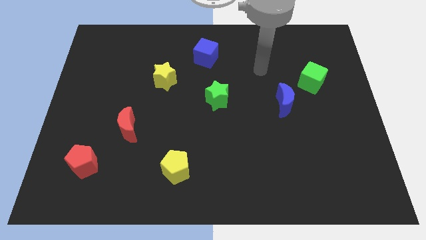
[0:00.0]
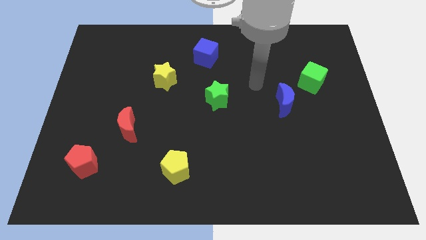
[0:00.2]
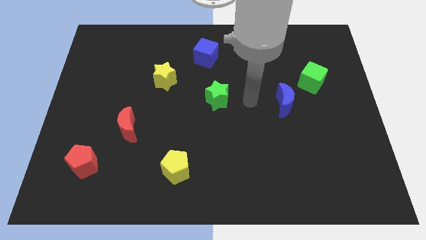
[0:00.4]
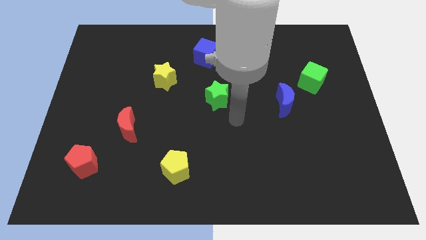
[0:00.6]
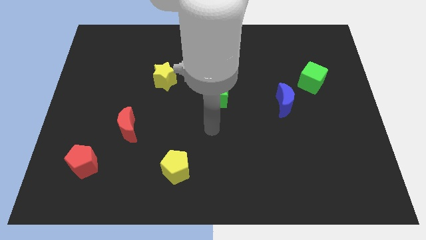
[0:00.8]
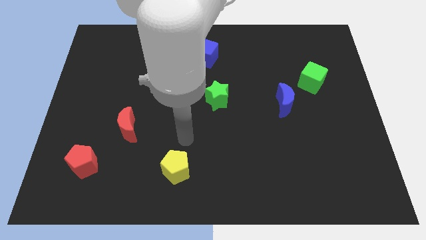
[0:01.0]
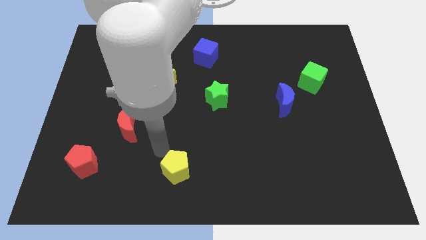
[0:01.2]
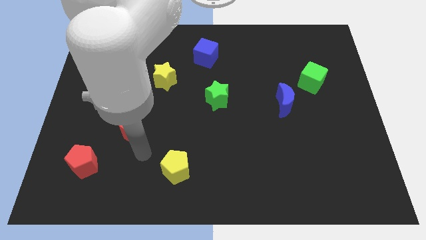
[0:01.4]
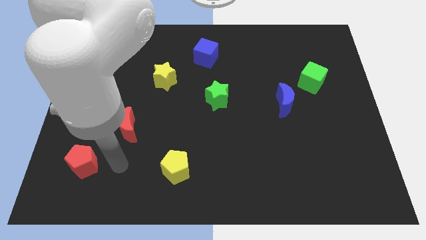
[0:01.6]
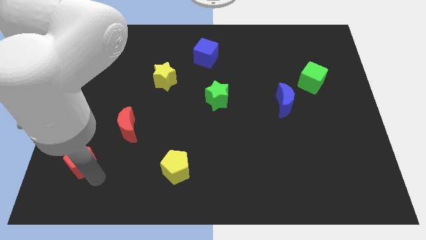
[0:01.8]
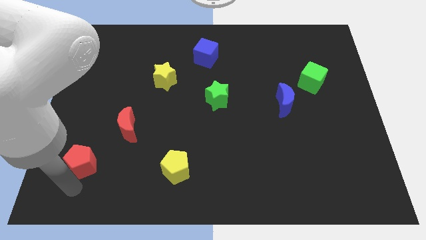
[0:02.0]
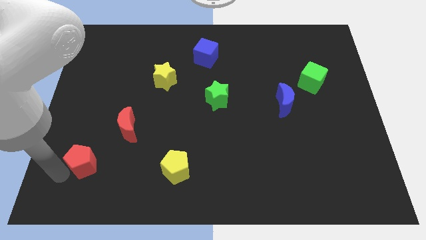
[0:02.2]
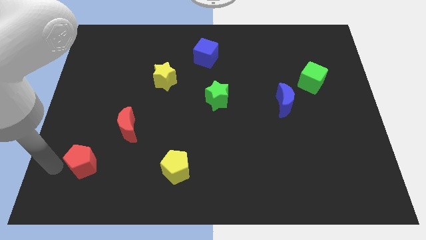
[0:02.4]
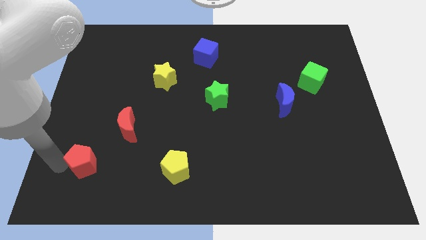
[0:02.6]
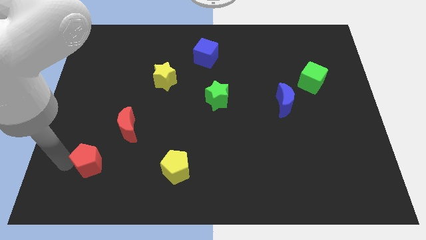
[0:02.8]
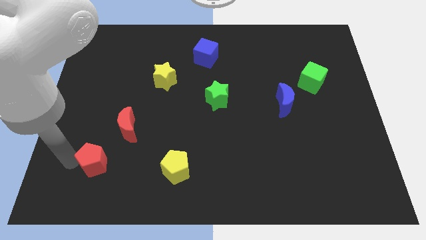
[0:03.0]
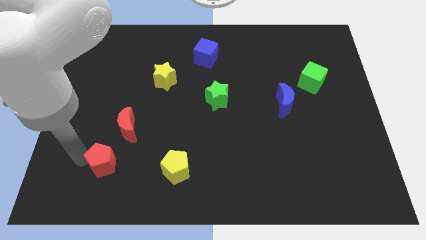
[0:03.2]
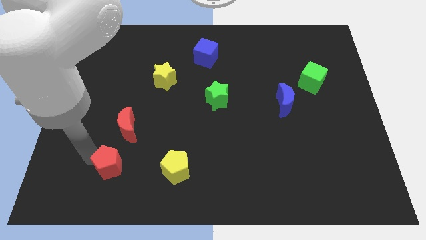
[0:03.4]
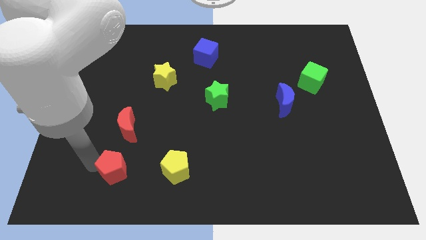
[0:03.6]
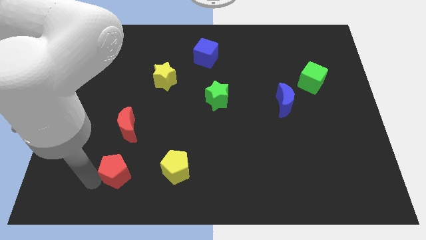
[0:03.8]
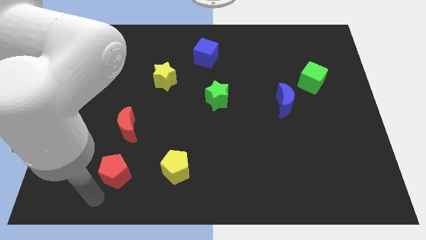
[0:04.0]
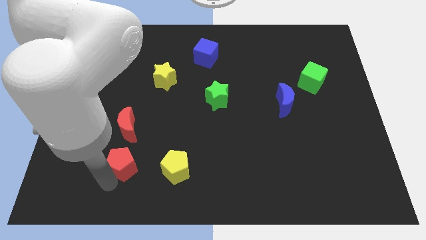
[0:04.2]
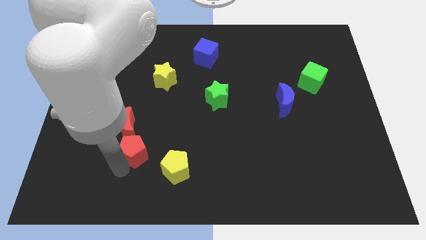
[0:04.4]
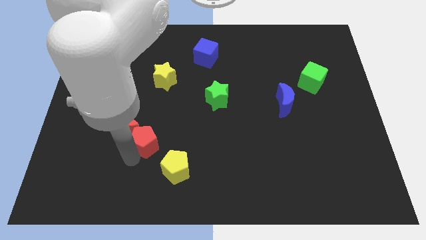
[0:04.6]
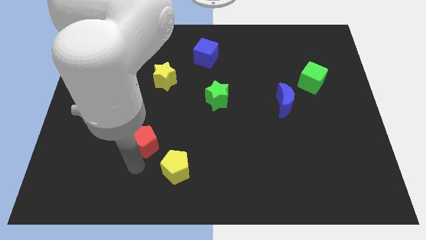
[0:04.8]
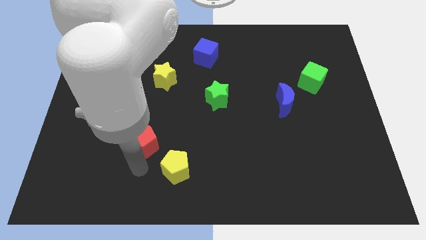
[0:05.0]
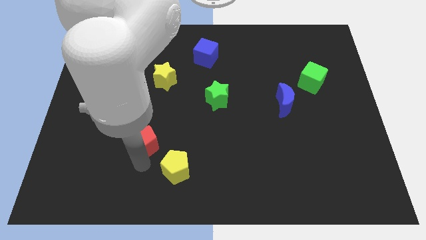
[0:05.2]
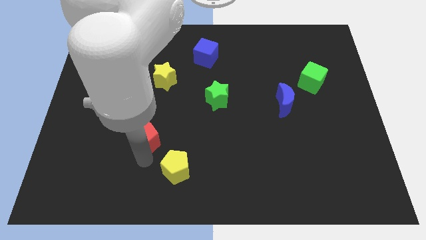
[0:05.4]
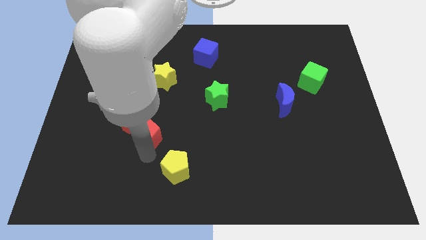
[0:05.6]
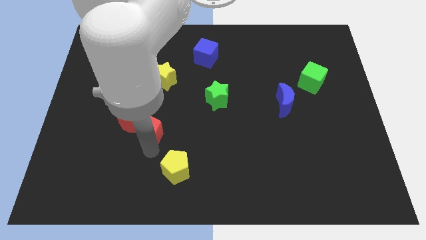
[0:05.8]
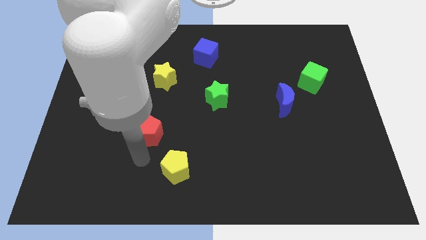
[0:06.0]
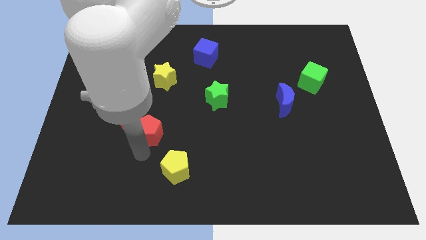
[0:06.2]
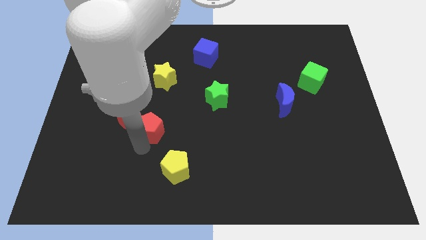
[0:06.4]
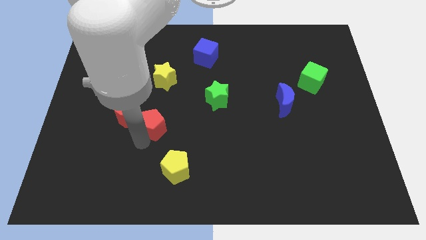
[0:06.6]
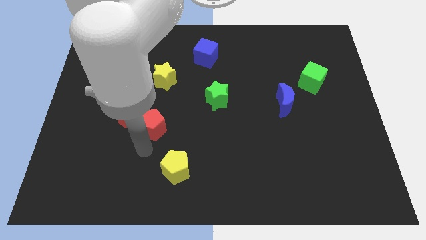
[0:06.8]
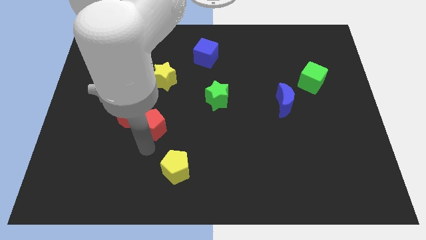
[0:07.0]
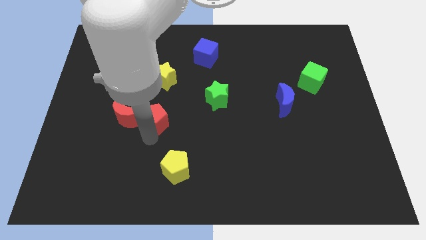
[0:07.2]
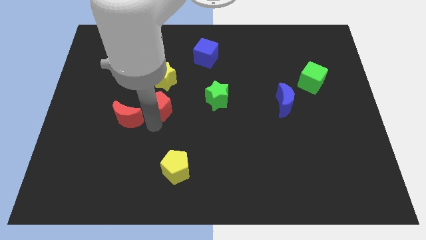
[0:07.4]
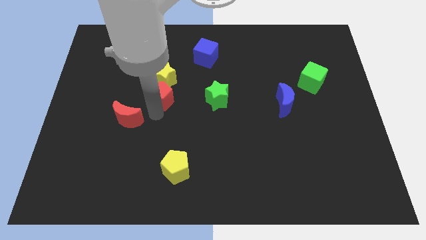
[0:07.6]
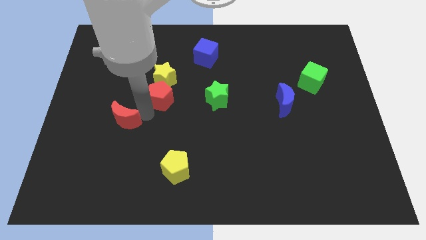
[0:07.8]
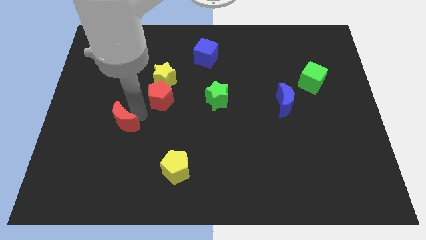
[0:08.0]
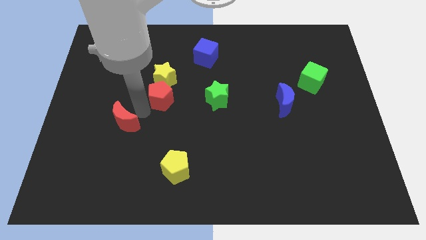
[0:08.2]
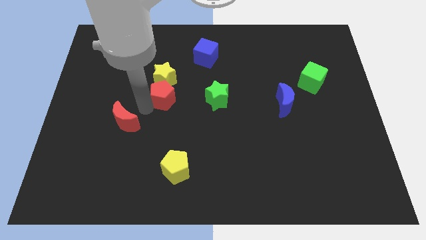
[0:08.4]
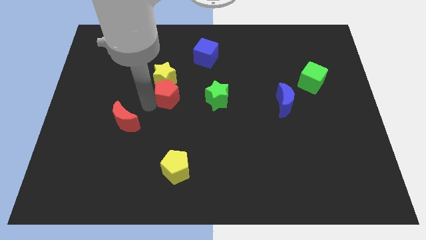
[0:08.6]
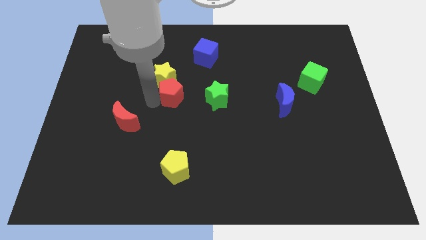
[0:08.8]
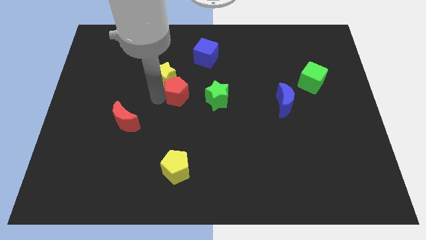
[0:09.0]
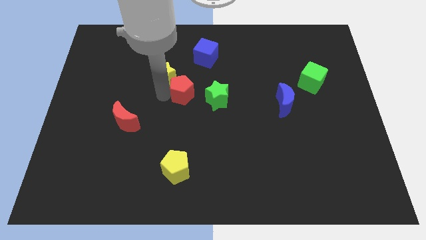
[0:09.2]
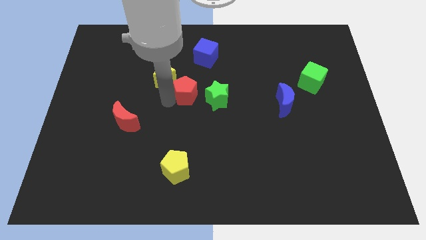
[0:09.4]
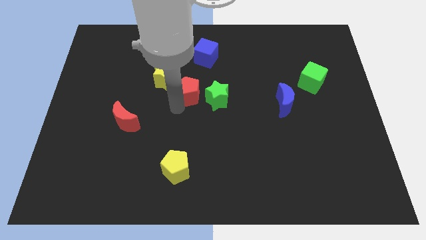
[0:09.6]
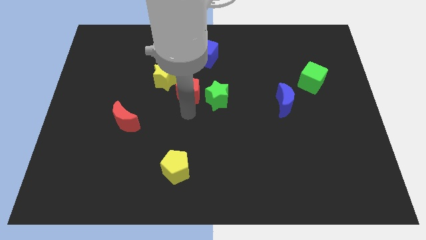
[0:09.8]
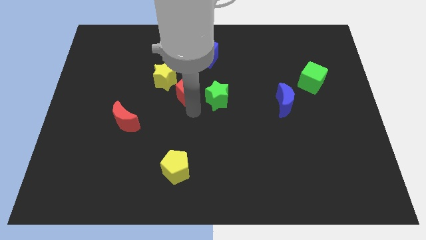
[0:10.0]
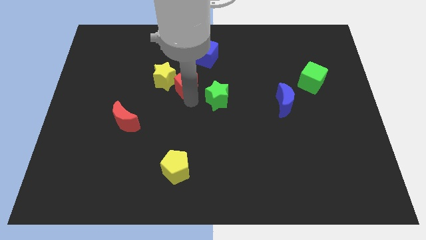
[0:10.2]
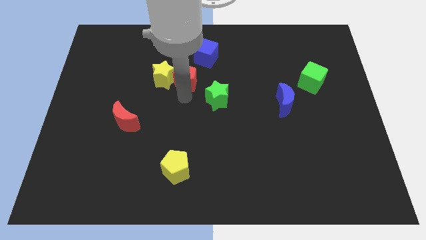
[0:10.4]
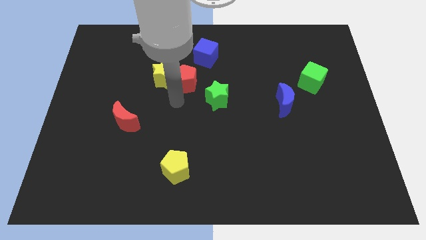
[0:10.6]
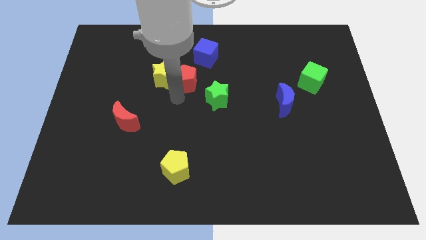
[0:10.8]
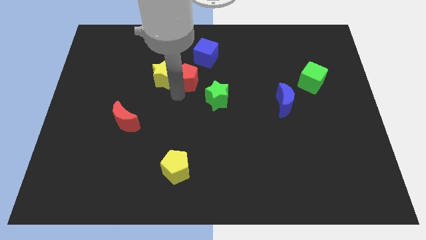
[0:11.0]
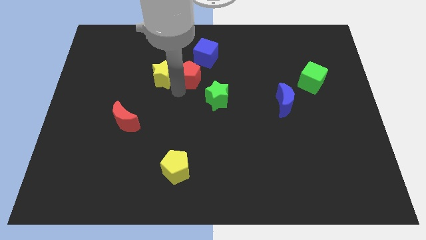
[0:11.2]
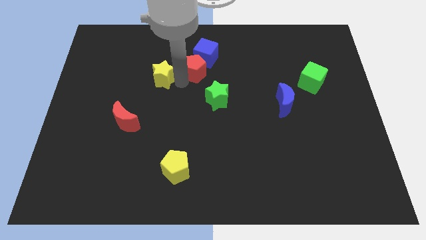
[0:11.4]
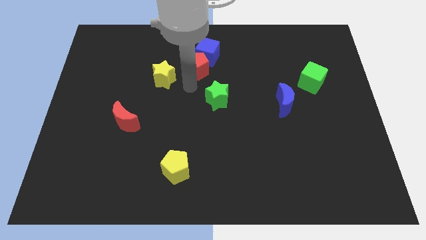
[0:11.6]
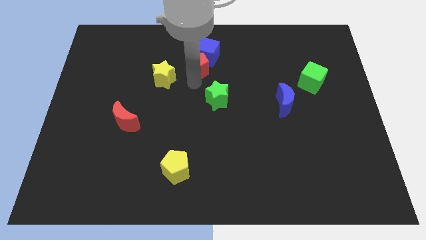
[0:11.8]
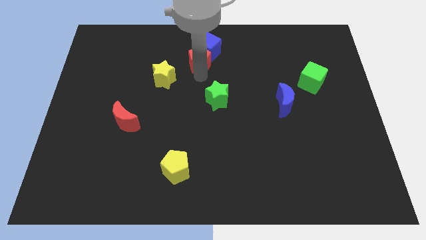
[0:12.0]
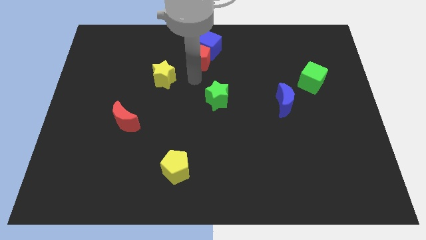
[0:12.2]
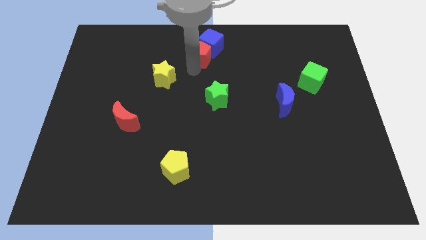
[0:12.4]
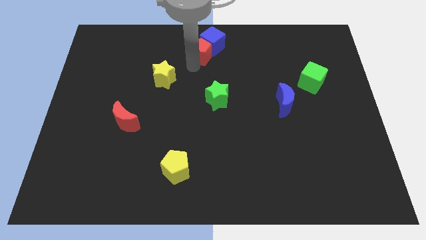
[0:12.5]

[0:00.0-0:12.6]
put the red pentagon to the towards your base

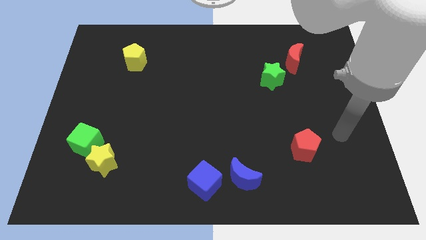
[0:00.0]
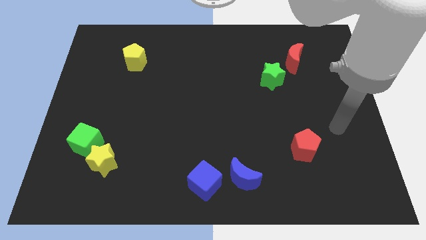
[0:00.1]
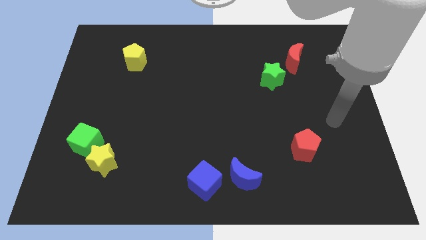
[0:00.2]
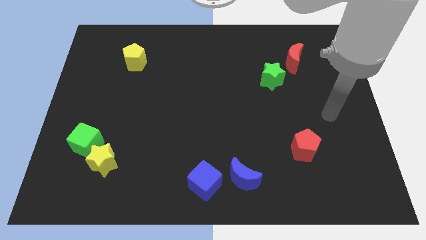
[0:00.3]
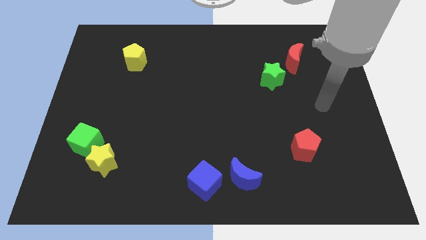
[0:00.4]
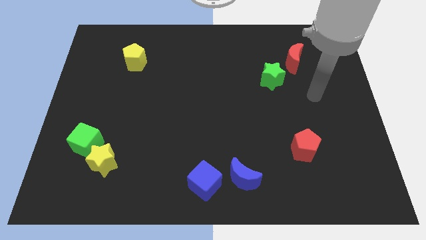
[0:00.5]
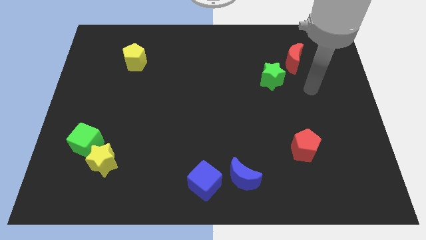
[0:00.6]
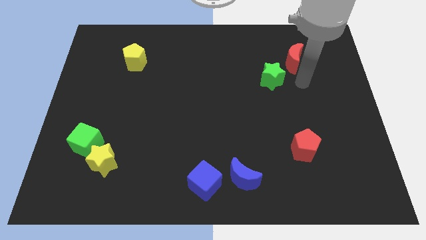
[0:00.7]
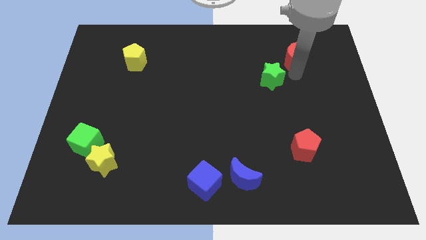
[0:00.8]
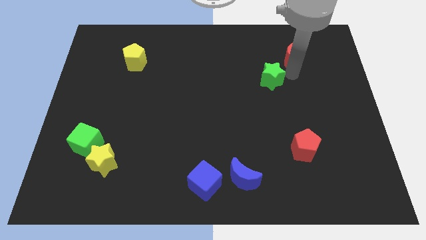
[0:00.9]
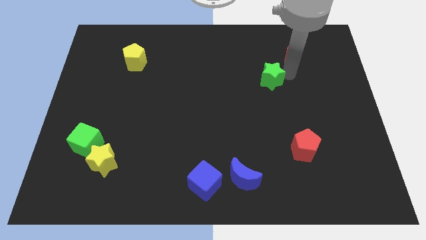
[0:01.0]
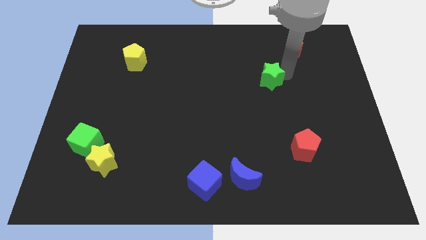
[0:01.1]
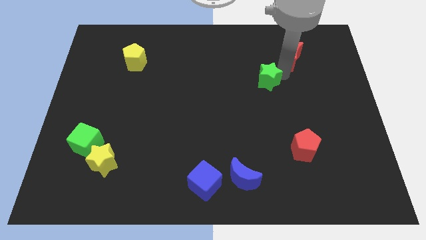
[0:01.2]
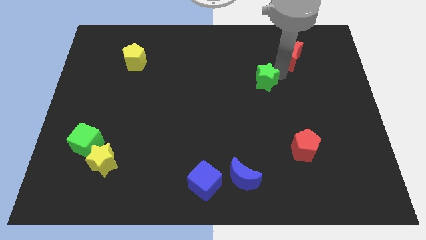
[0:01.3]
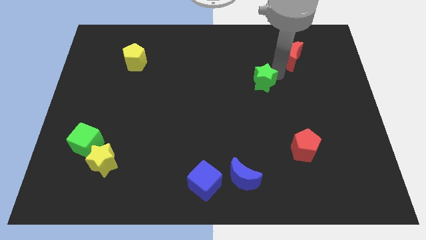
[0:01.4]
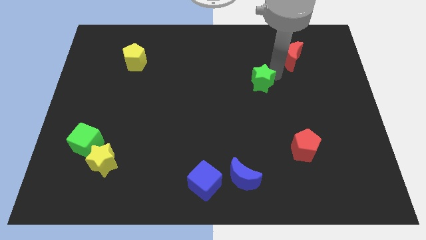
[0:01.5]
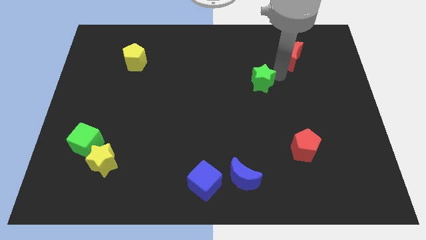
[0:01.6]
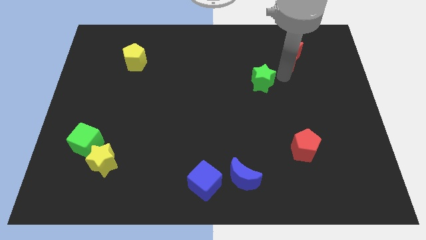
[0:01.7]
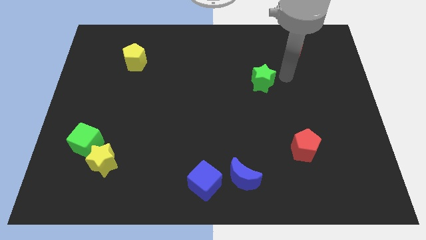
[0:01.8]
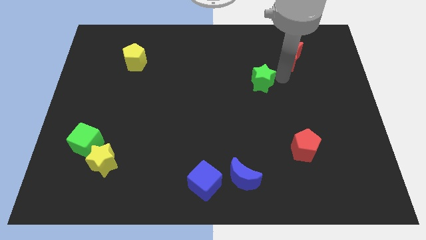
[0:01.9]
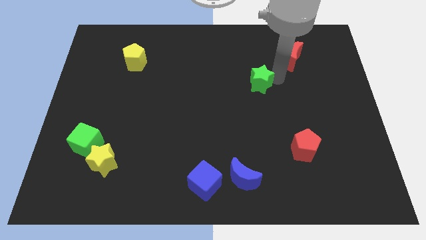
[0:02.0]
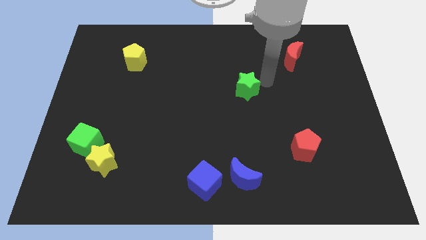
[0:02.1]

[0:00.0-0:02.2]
move the green star to the middle
